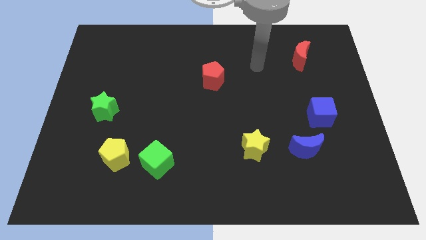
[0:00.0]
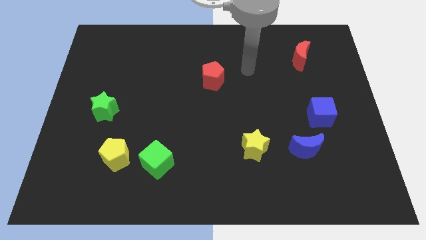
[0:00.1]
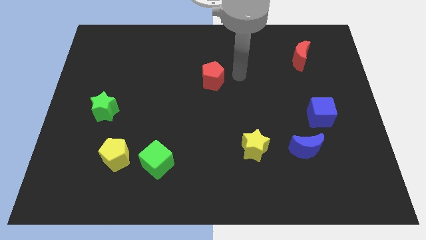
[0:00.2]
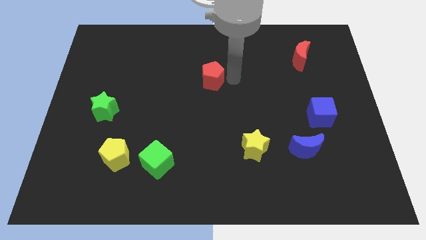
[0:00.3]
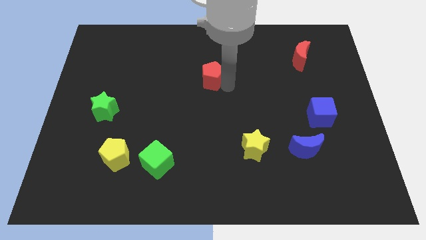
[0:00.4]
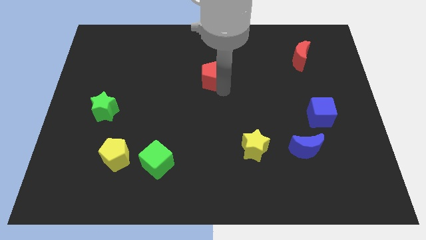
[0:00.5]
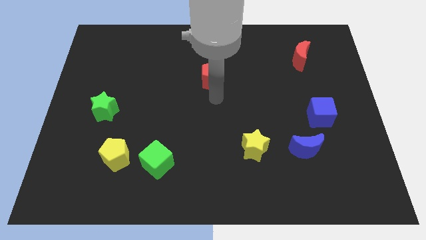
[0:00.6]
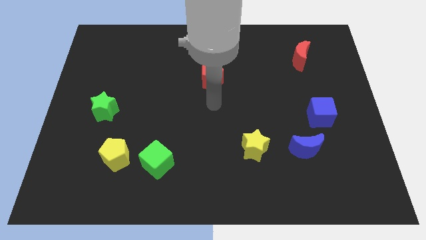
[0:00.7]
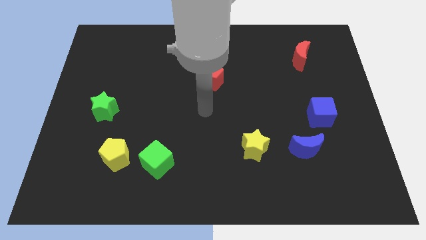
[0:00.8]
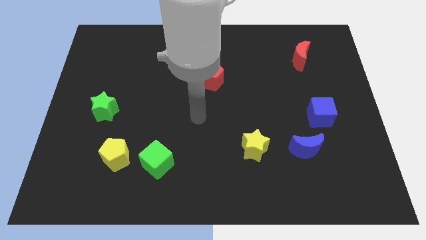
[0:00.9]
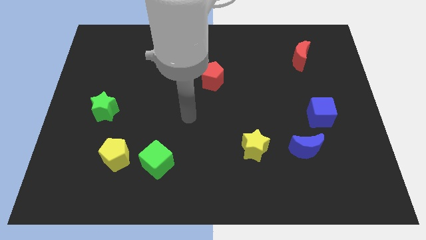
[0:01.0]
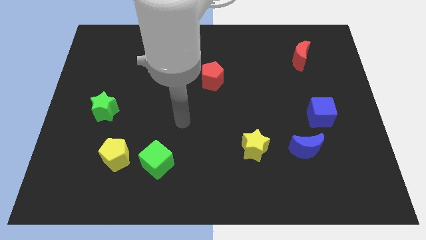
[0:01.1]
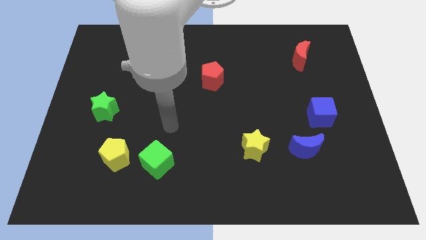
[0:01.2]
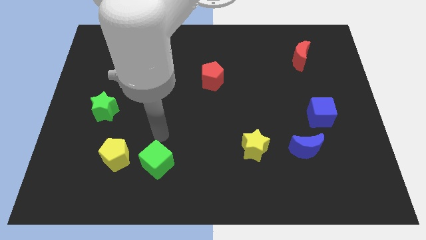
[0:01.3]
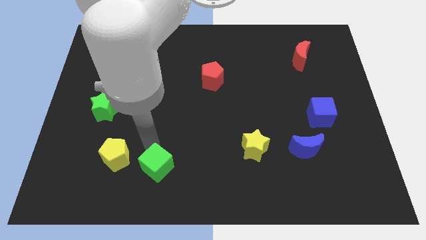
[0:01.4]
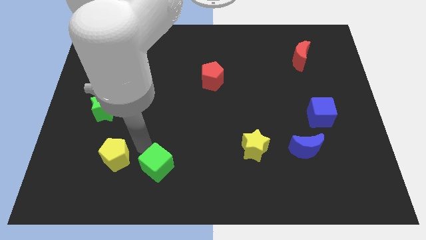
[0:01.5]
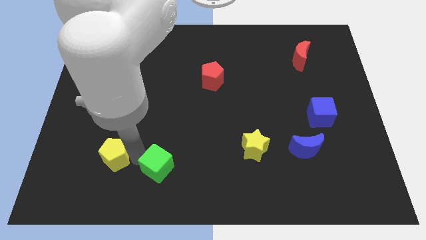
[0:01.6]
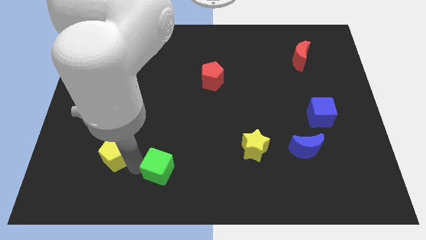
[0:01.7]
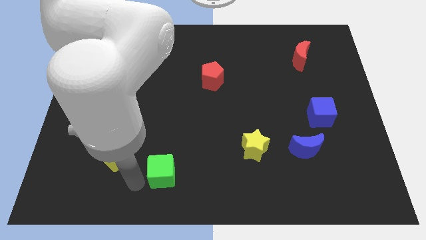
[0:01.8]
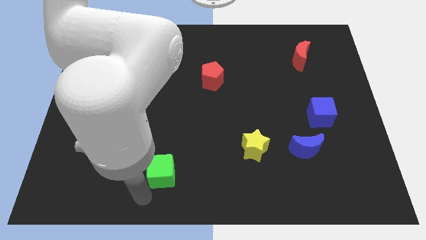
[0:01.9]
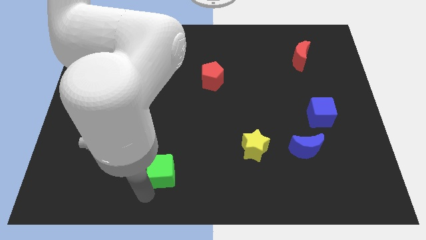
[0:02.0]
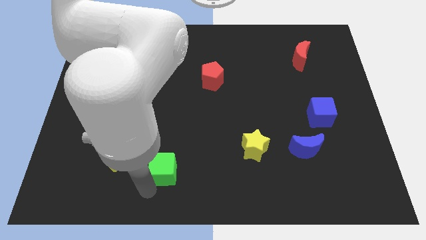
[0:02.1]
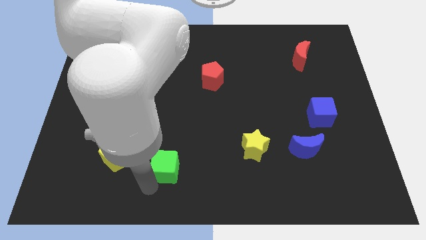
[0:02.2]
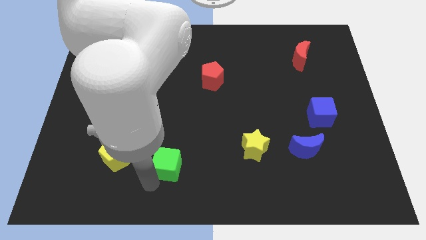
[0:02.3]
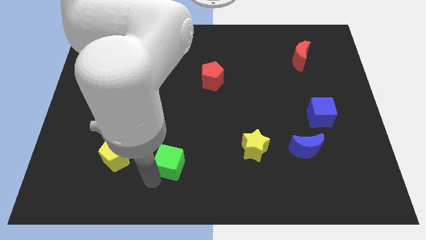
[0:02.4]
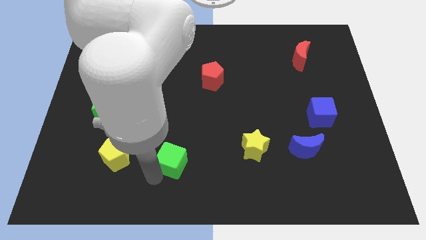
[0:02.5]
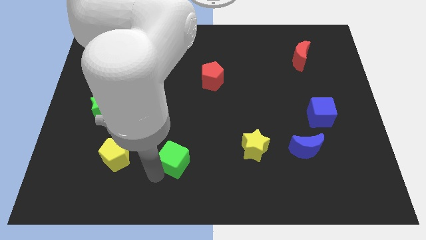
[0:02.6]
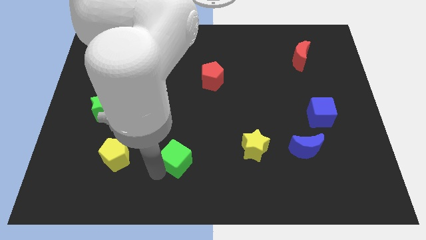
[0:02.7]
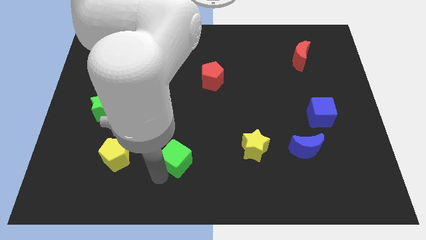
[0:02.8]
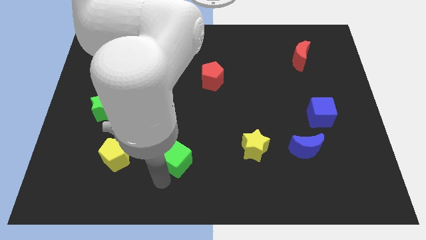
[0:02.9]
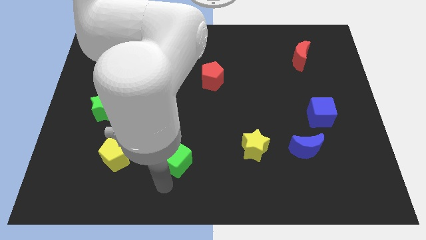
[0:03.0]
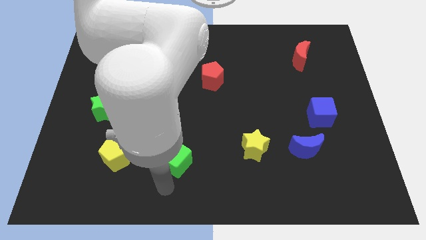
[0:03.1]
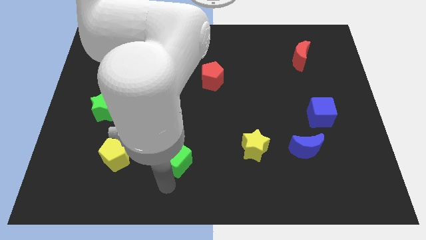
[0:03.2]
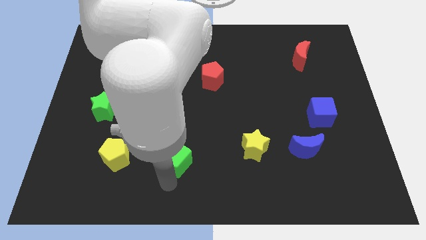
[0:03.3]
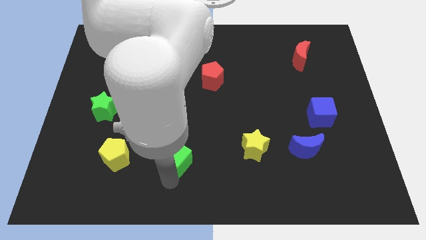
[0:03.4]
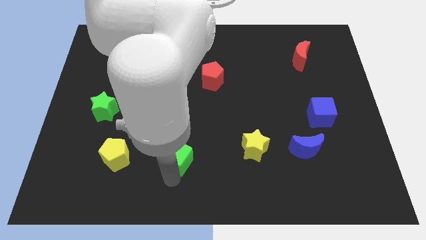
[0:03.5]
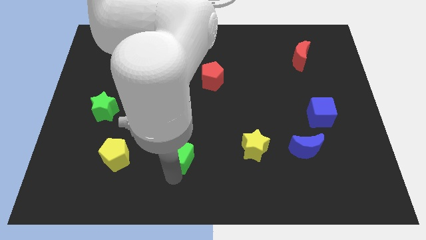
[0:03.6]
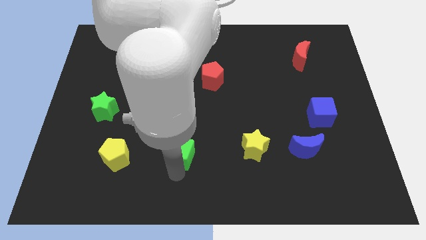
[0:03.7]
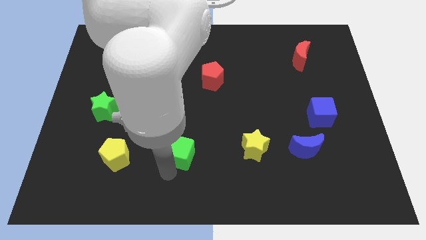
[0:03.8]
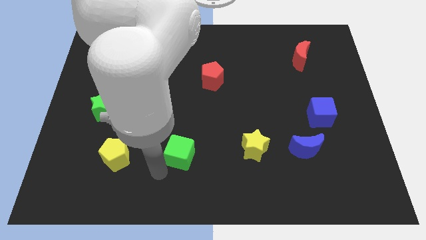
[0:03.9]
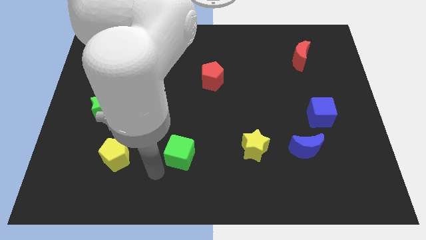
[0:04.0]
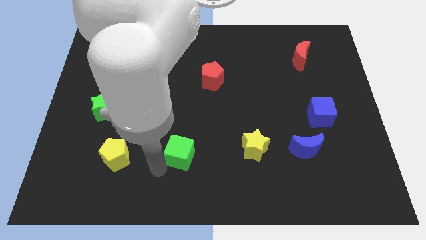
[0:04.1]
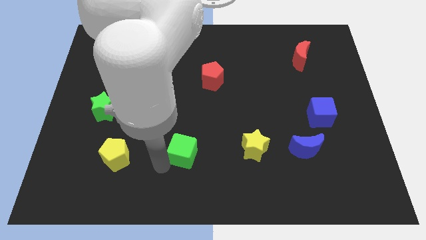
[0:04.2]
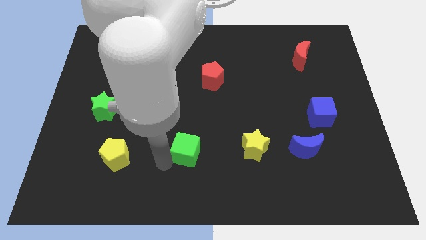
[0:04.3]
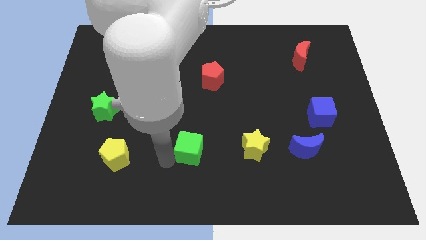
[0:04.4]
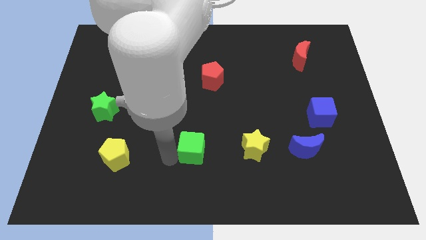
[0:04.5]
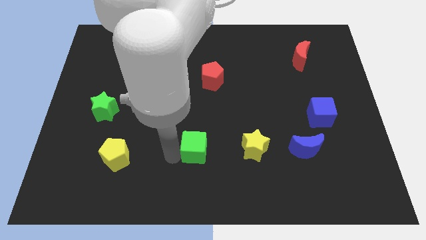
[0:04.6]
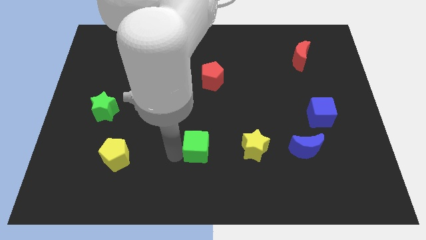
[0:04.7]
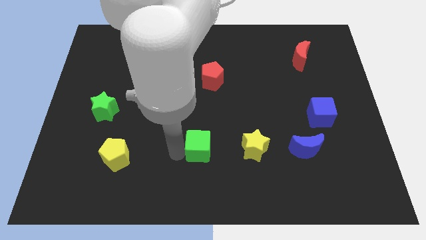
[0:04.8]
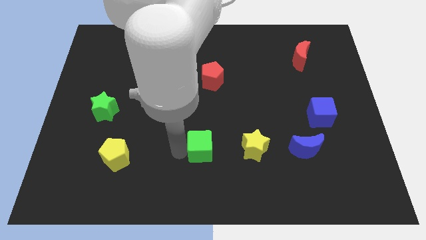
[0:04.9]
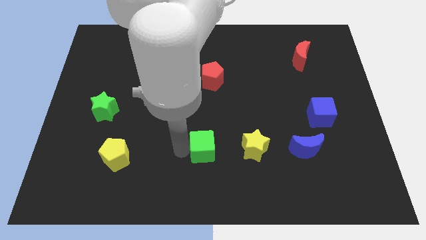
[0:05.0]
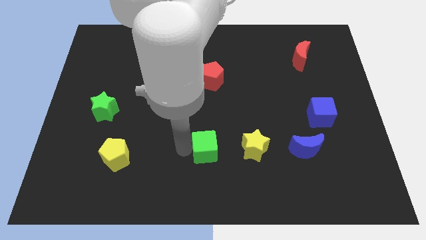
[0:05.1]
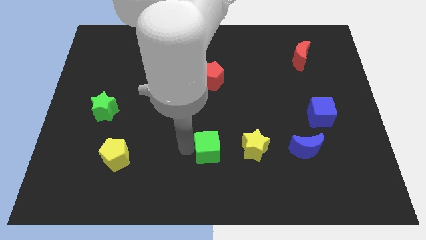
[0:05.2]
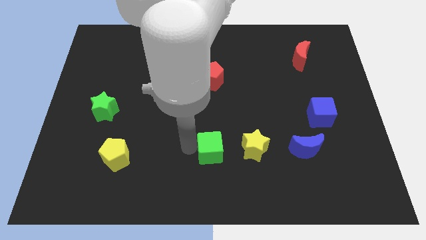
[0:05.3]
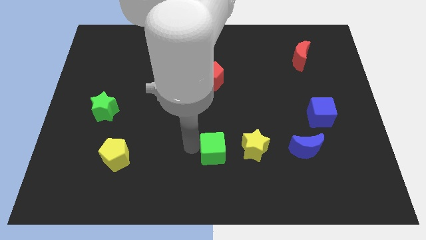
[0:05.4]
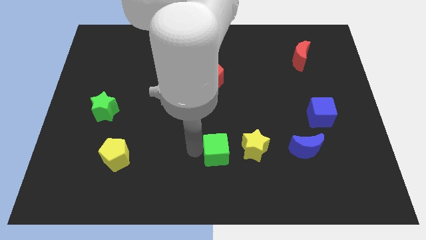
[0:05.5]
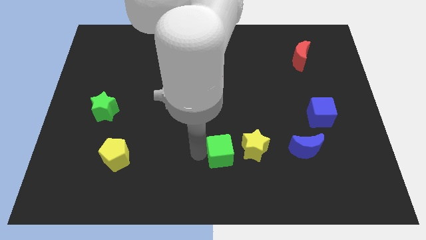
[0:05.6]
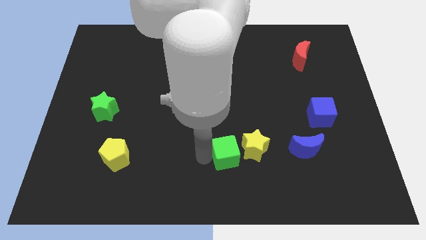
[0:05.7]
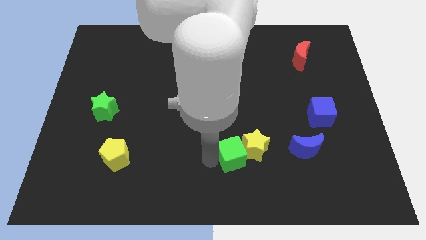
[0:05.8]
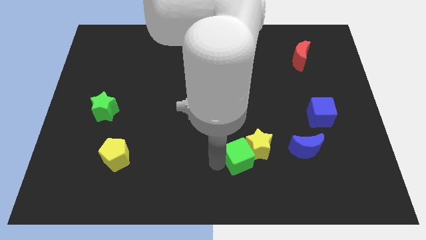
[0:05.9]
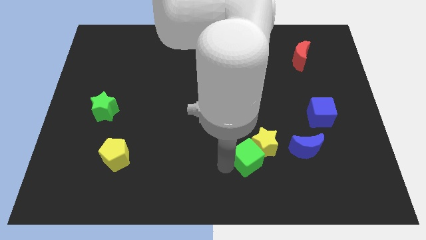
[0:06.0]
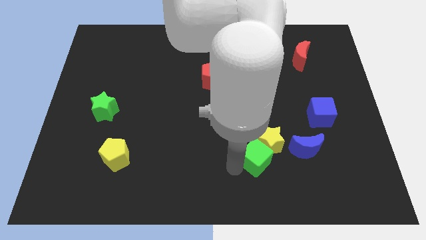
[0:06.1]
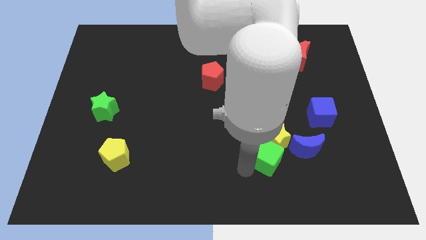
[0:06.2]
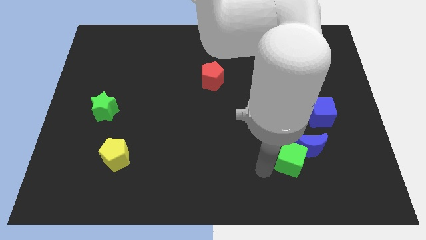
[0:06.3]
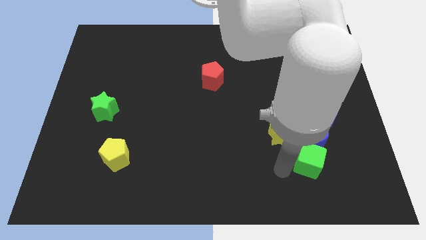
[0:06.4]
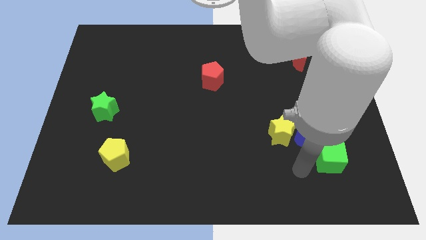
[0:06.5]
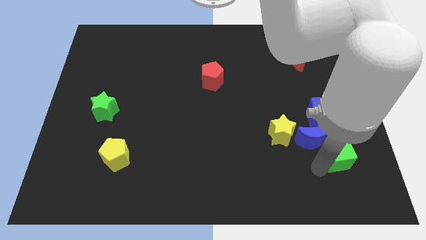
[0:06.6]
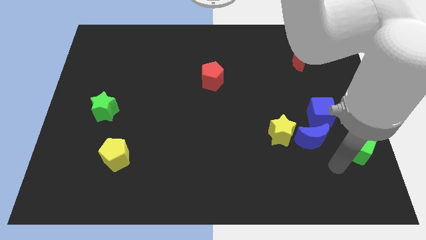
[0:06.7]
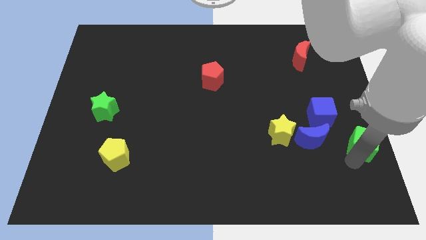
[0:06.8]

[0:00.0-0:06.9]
push the green cube to the center right
